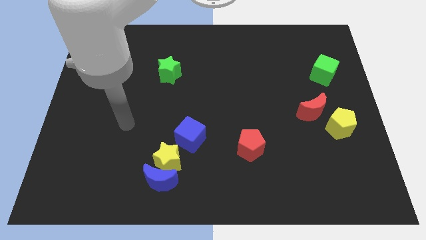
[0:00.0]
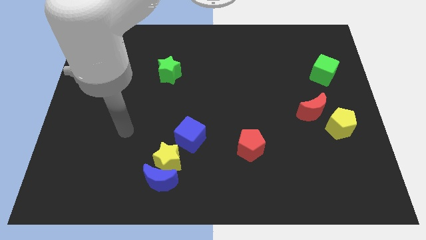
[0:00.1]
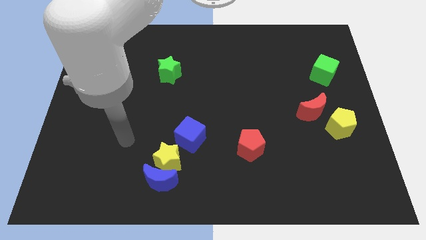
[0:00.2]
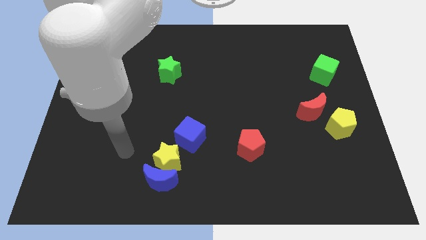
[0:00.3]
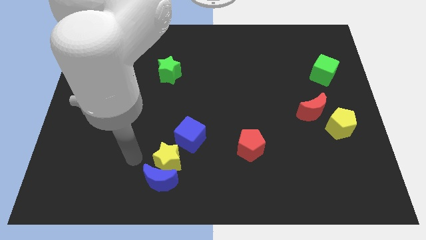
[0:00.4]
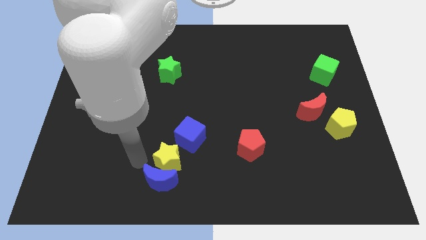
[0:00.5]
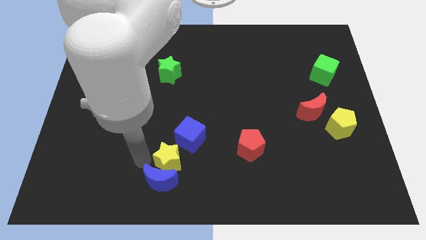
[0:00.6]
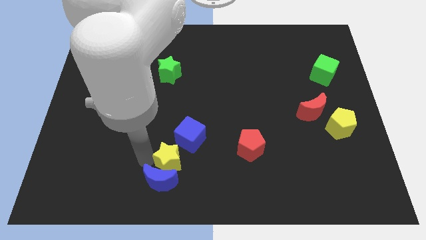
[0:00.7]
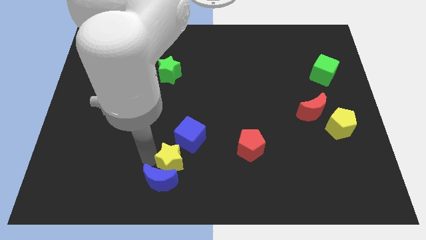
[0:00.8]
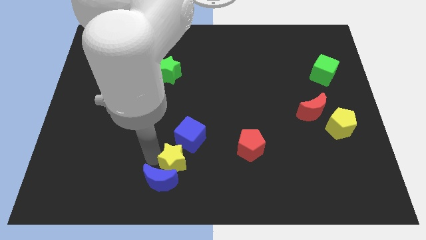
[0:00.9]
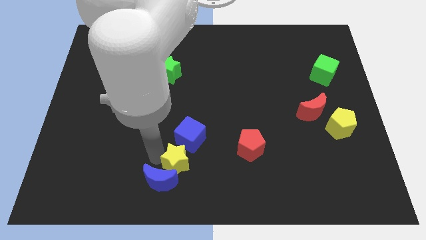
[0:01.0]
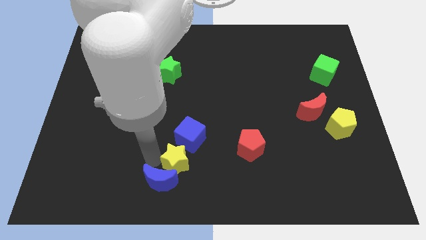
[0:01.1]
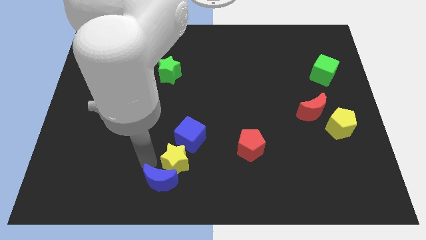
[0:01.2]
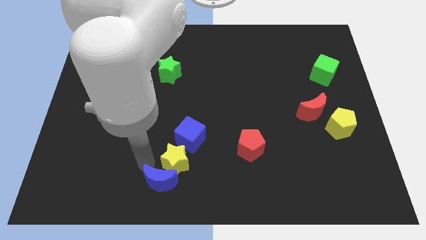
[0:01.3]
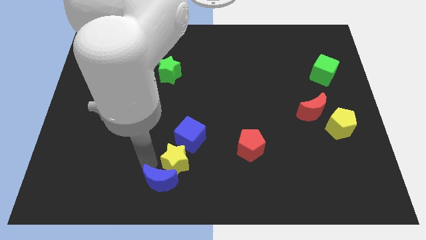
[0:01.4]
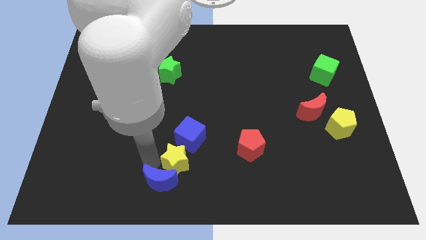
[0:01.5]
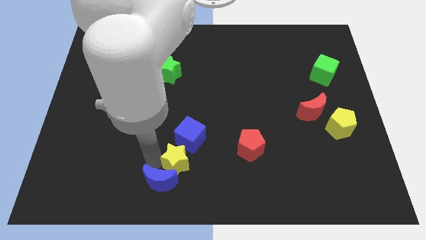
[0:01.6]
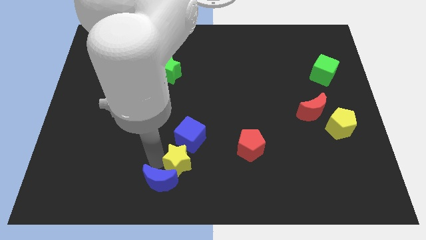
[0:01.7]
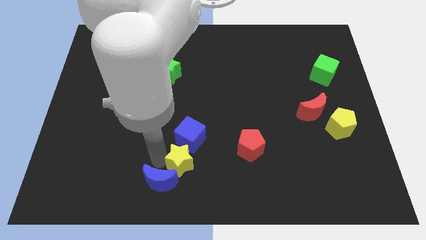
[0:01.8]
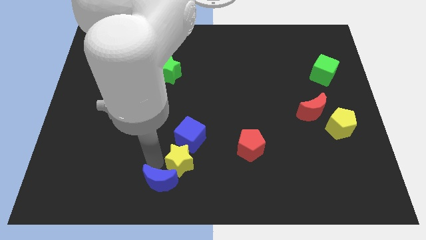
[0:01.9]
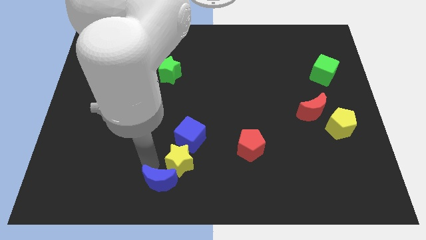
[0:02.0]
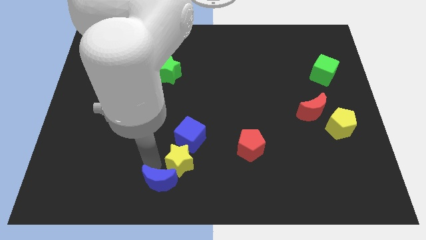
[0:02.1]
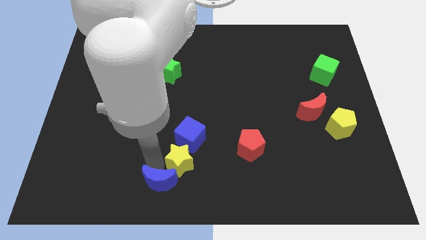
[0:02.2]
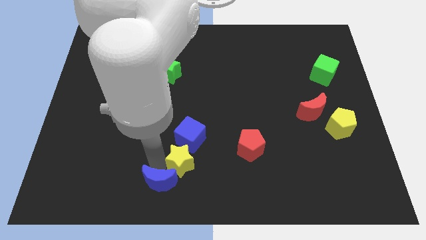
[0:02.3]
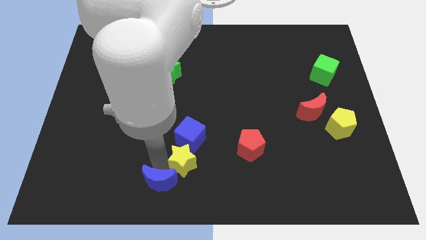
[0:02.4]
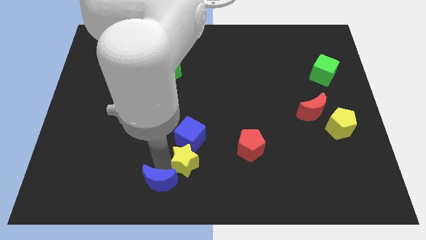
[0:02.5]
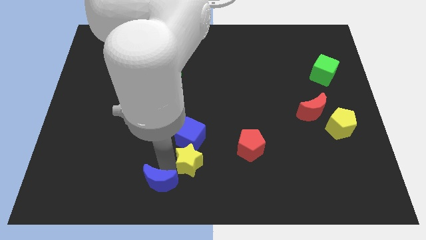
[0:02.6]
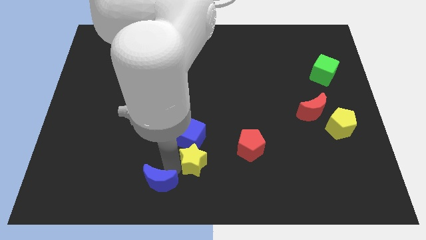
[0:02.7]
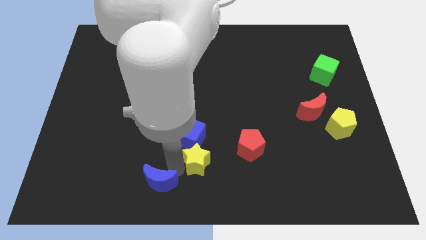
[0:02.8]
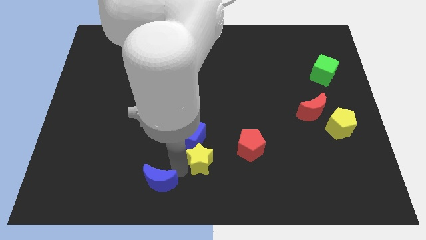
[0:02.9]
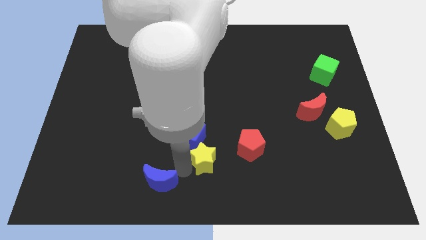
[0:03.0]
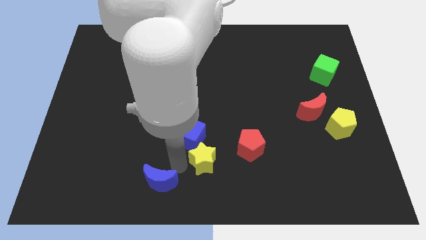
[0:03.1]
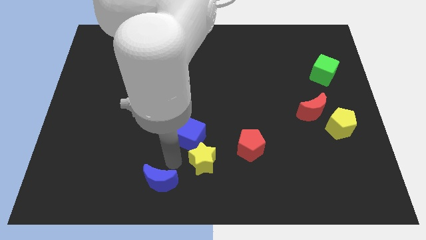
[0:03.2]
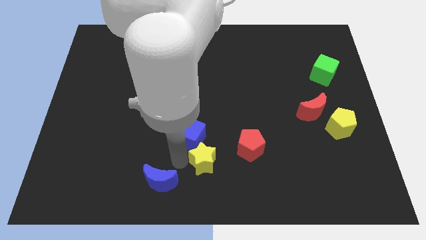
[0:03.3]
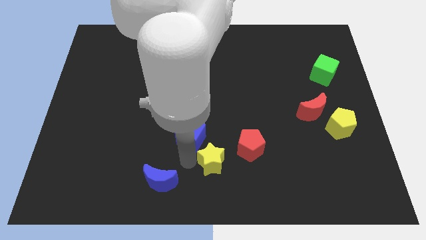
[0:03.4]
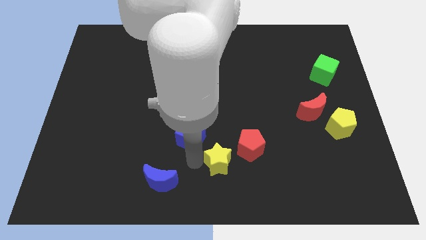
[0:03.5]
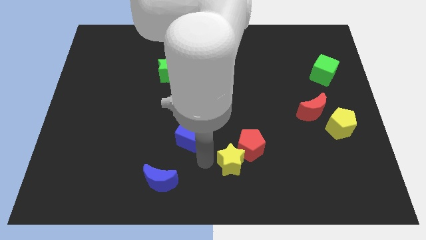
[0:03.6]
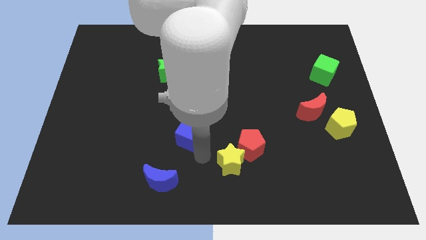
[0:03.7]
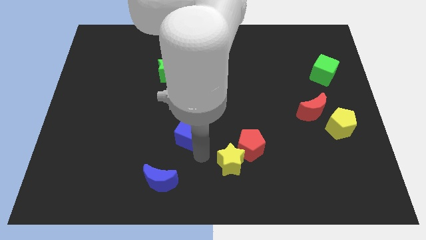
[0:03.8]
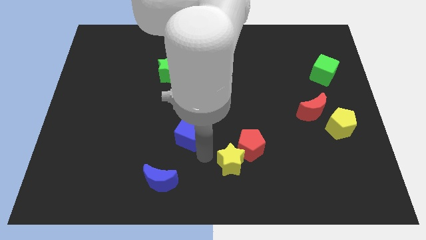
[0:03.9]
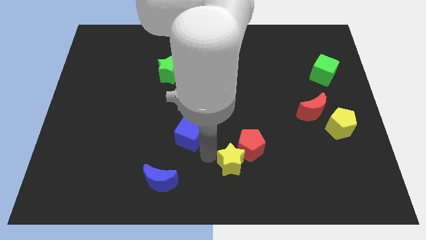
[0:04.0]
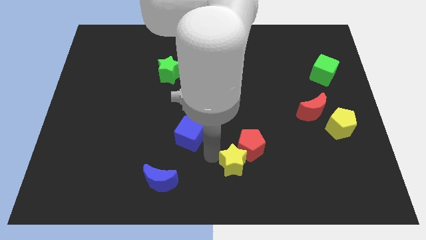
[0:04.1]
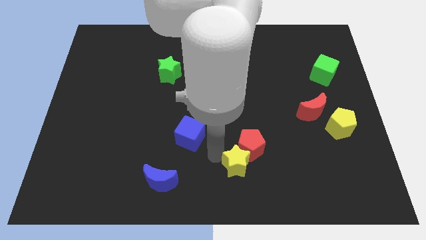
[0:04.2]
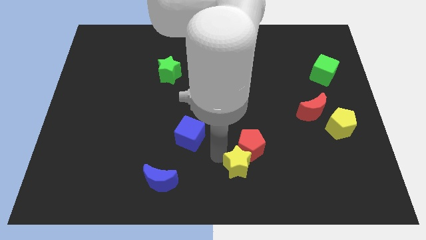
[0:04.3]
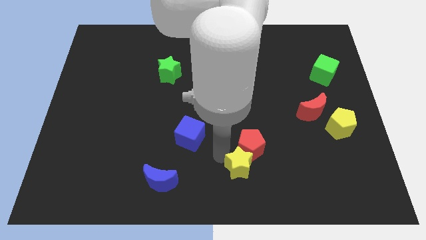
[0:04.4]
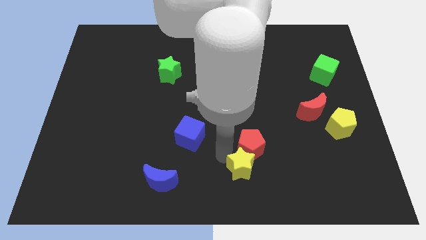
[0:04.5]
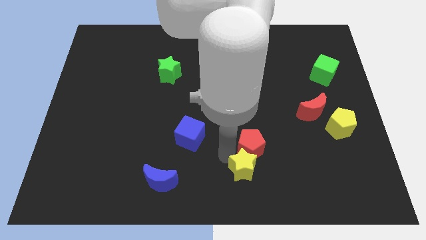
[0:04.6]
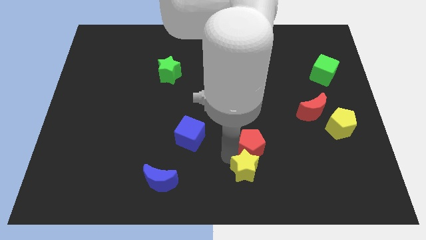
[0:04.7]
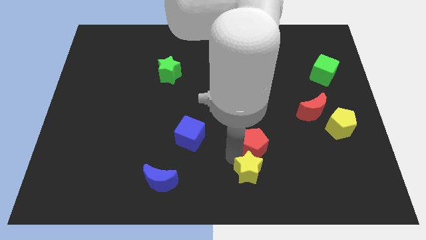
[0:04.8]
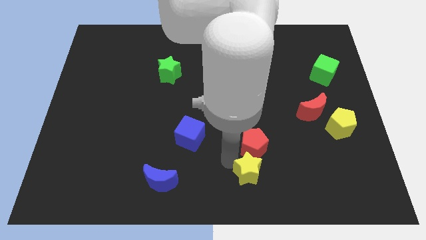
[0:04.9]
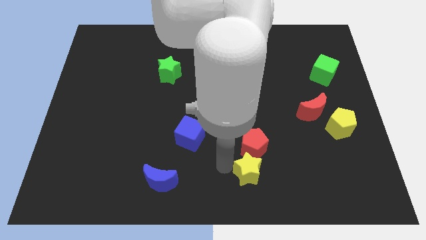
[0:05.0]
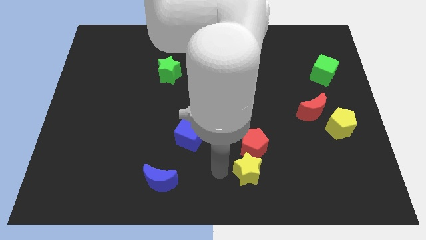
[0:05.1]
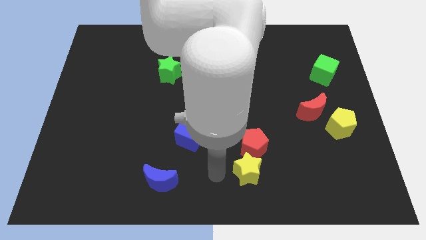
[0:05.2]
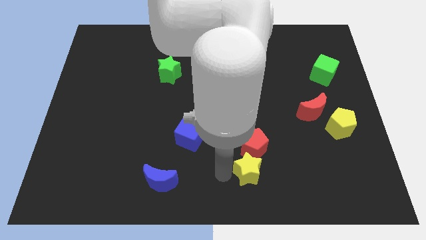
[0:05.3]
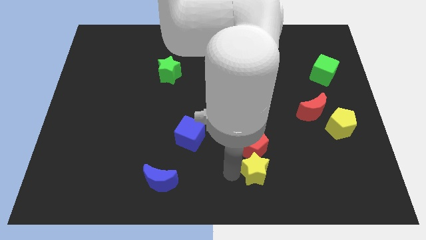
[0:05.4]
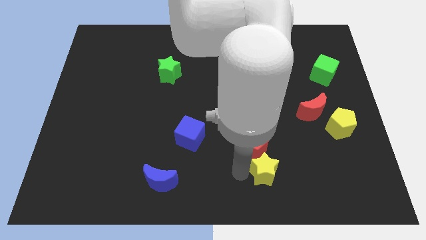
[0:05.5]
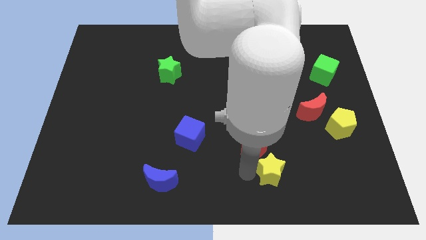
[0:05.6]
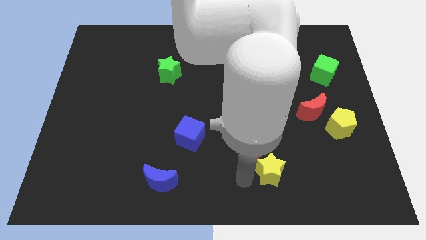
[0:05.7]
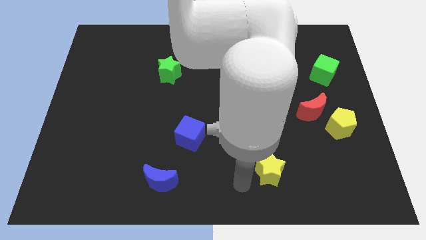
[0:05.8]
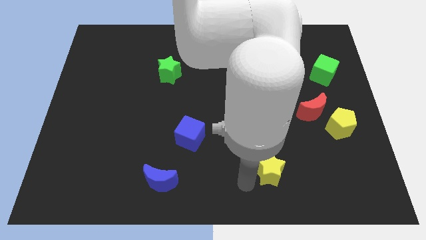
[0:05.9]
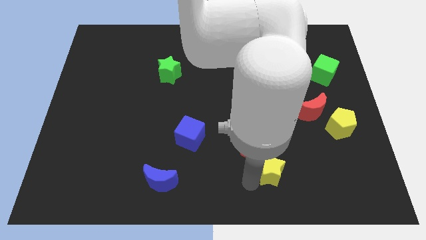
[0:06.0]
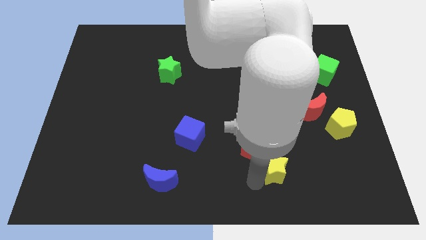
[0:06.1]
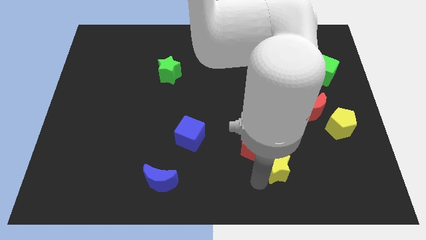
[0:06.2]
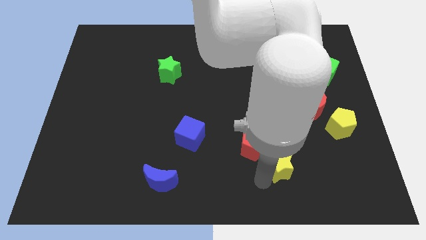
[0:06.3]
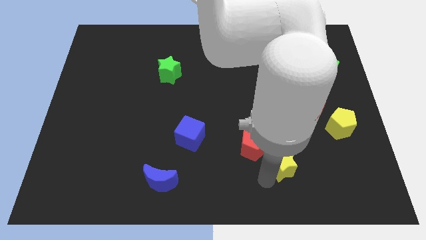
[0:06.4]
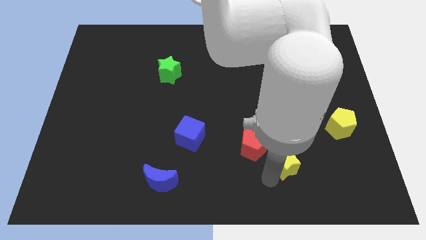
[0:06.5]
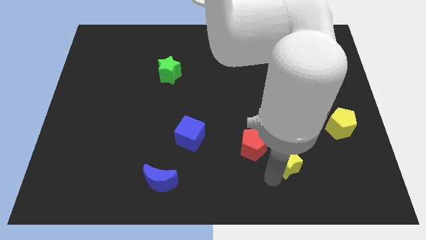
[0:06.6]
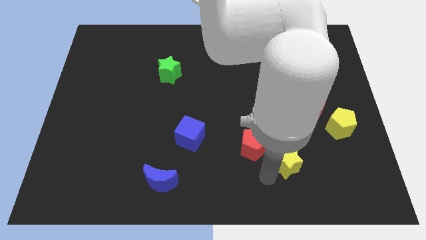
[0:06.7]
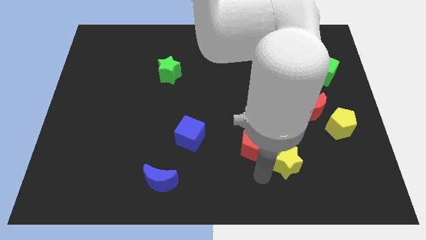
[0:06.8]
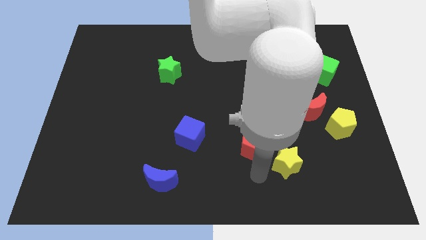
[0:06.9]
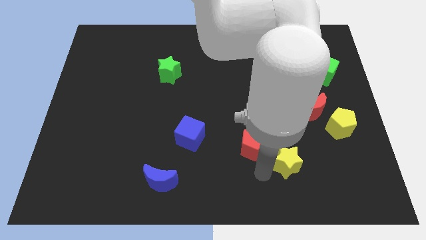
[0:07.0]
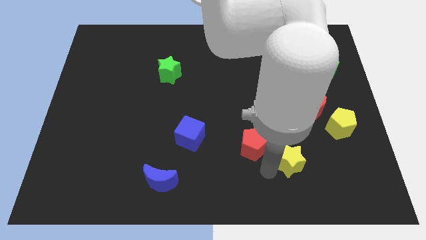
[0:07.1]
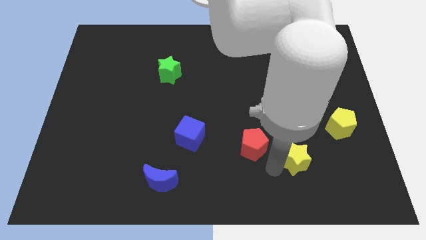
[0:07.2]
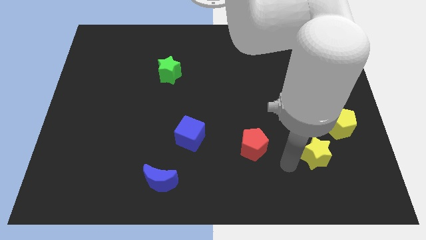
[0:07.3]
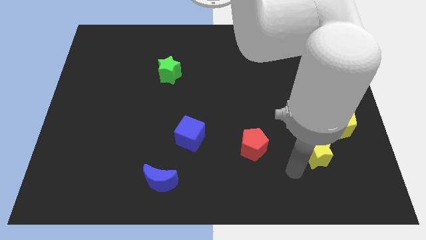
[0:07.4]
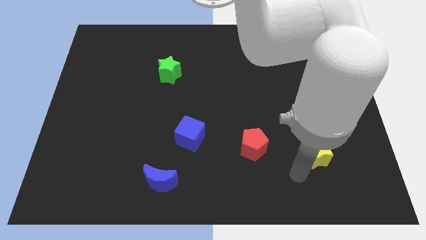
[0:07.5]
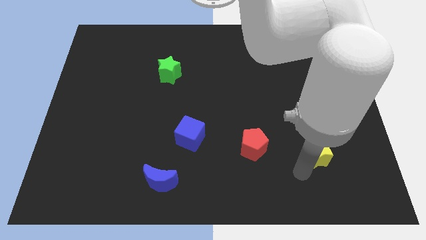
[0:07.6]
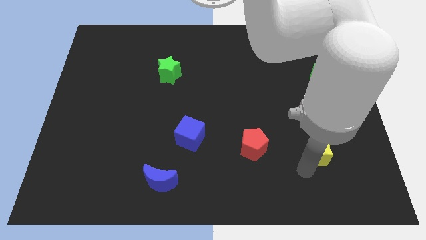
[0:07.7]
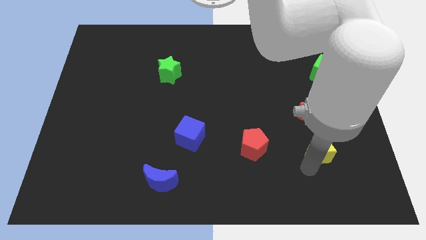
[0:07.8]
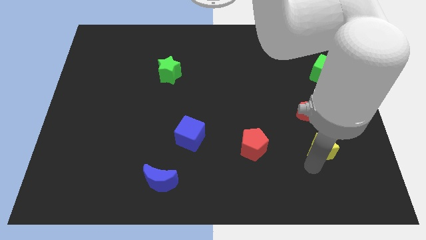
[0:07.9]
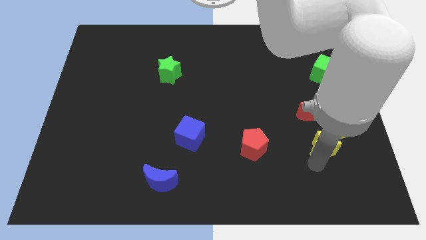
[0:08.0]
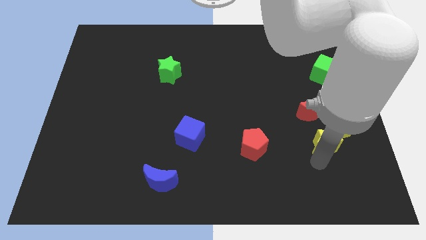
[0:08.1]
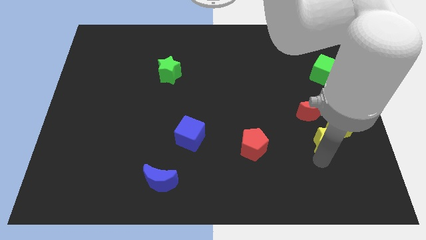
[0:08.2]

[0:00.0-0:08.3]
put the yellow star close to the yellow pentagon
